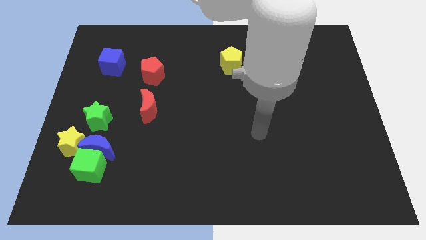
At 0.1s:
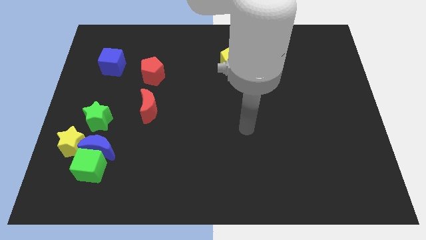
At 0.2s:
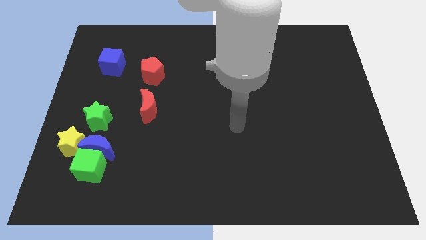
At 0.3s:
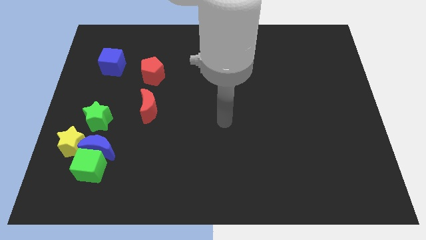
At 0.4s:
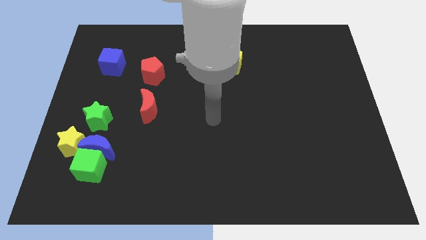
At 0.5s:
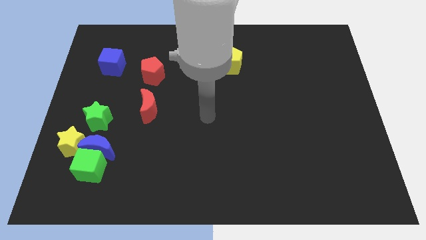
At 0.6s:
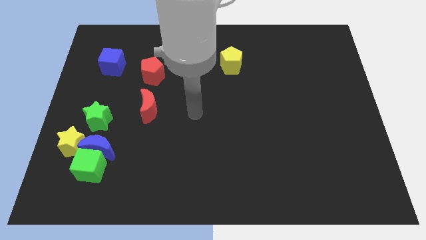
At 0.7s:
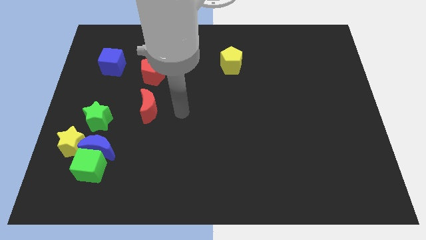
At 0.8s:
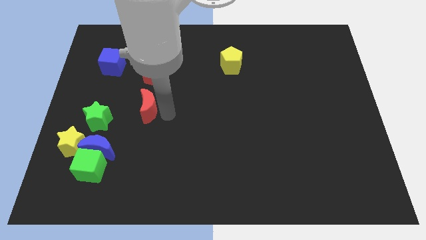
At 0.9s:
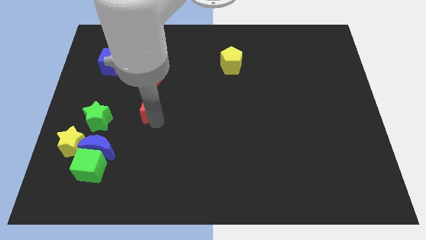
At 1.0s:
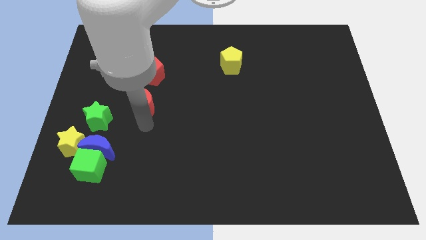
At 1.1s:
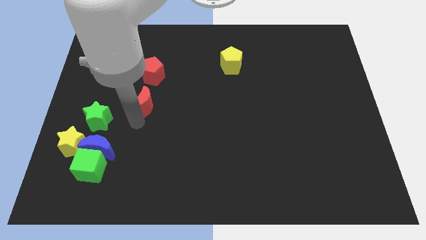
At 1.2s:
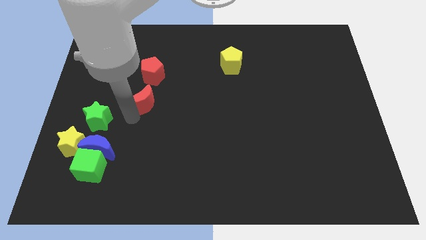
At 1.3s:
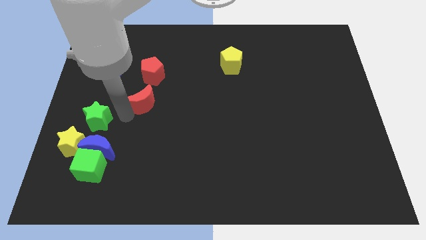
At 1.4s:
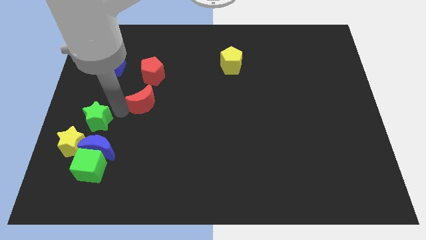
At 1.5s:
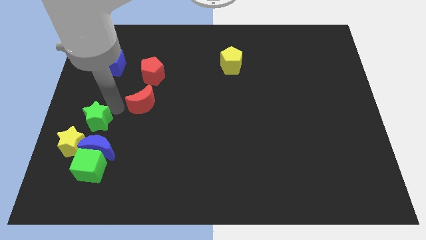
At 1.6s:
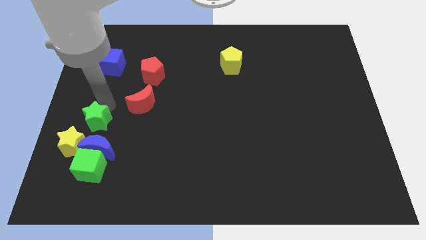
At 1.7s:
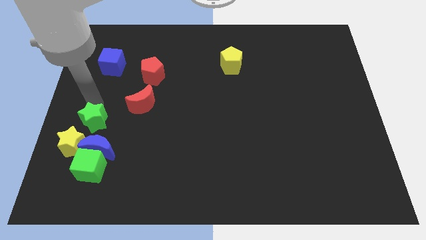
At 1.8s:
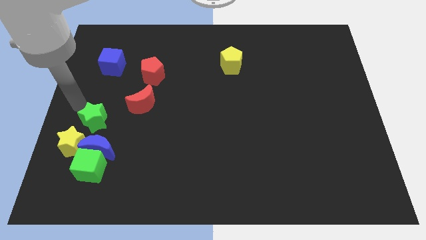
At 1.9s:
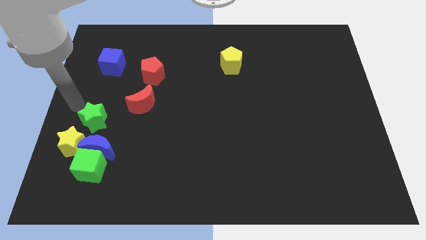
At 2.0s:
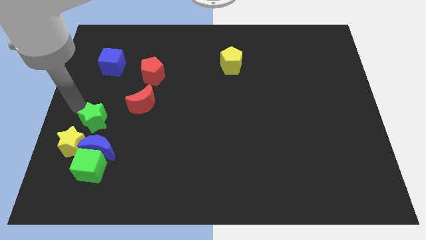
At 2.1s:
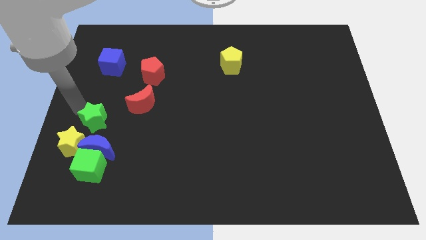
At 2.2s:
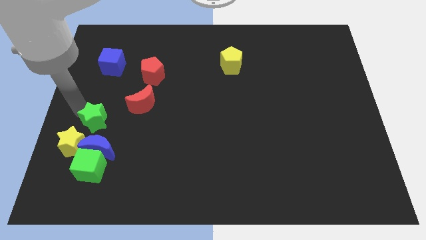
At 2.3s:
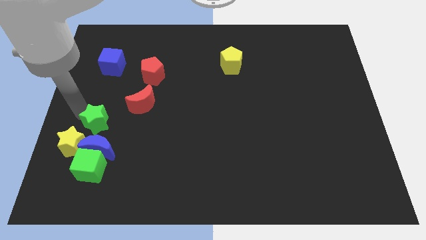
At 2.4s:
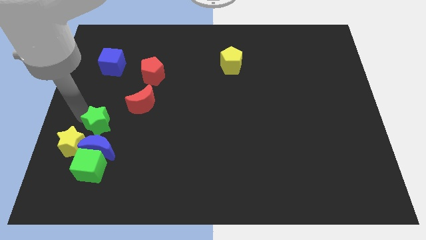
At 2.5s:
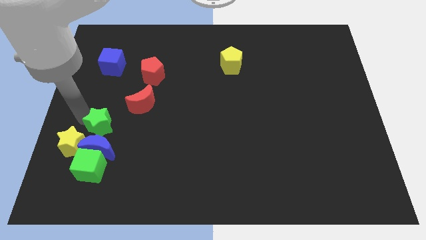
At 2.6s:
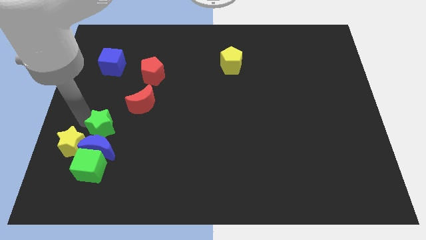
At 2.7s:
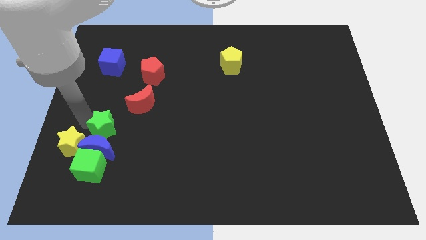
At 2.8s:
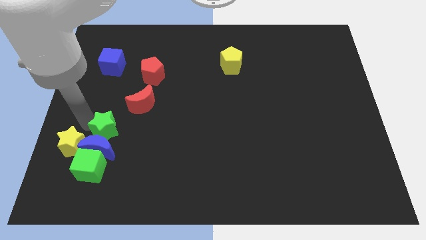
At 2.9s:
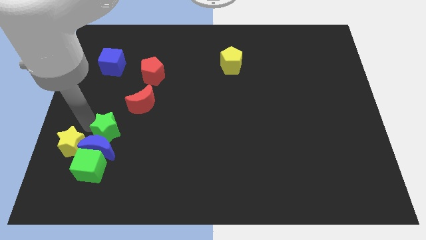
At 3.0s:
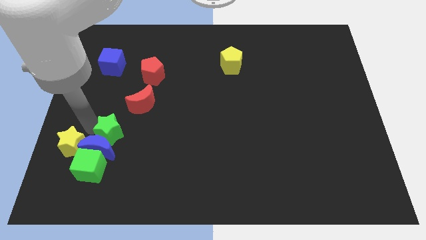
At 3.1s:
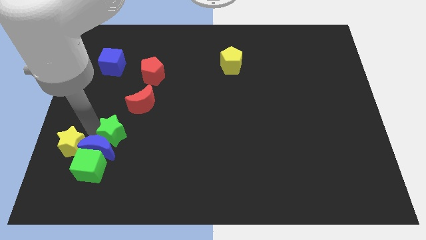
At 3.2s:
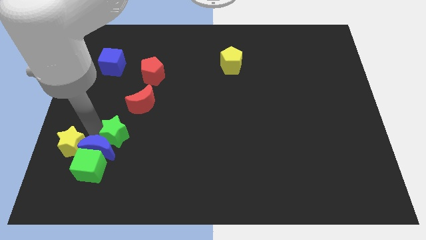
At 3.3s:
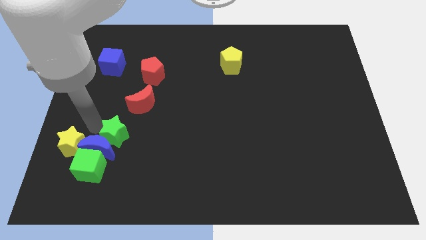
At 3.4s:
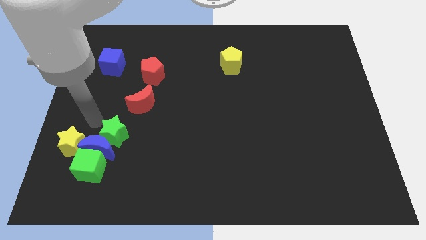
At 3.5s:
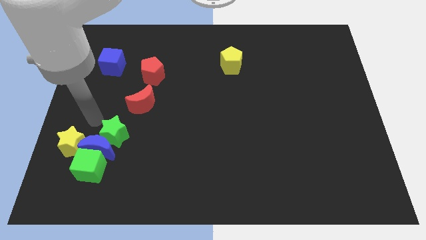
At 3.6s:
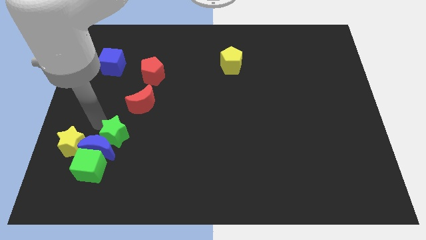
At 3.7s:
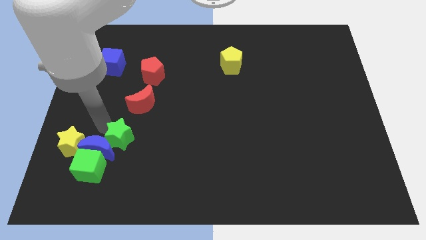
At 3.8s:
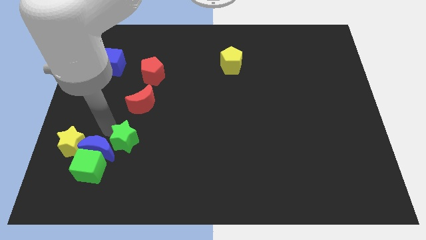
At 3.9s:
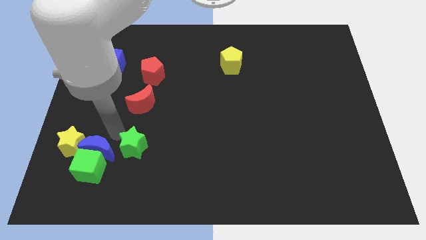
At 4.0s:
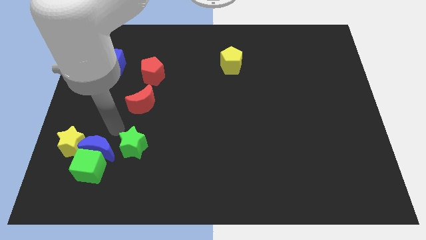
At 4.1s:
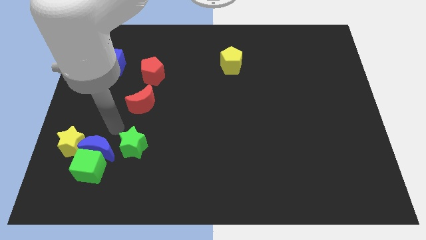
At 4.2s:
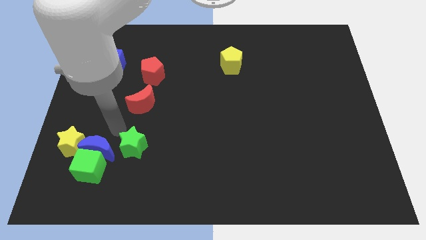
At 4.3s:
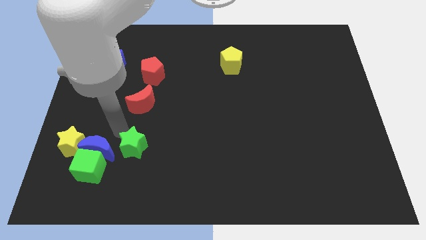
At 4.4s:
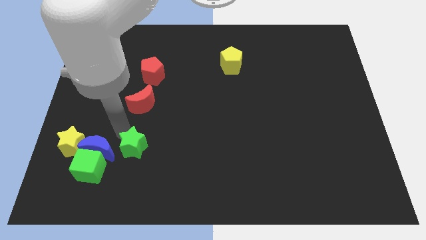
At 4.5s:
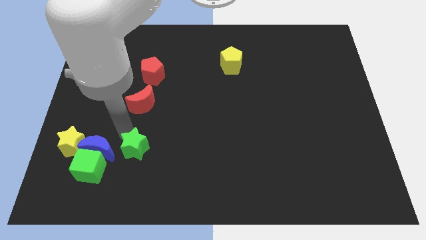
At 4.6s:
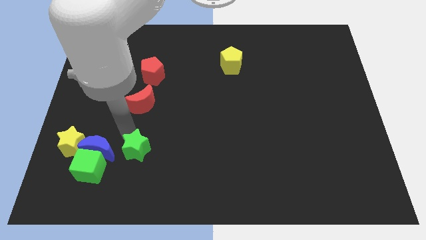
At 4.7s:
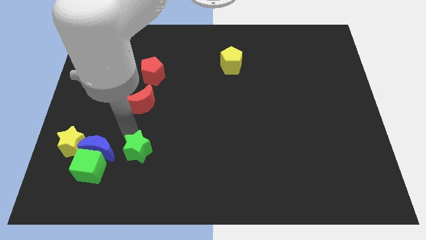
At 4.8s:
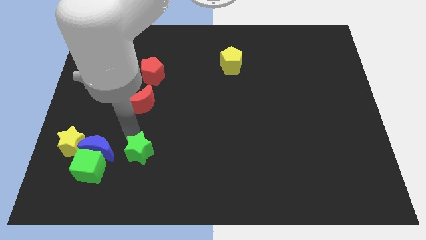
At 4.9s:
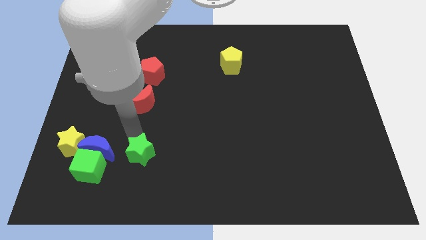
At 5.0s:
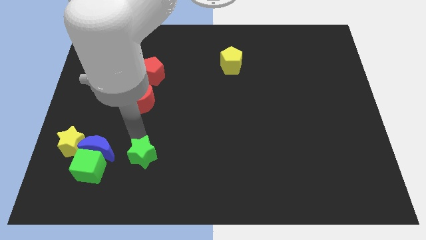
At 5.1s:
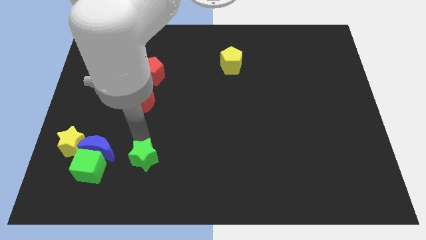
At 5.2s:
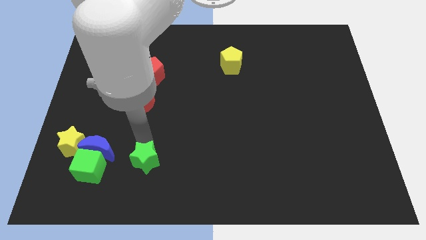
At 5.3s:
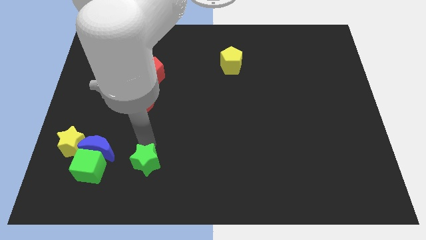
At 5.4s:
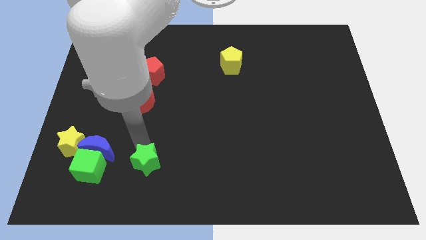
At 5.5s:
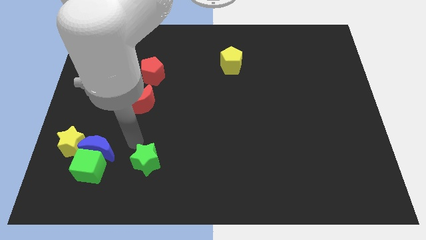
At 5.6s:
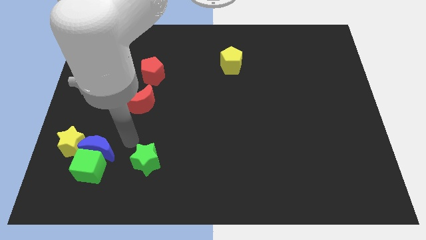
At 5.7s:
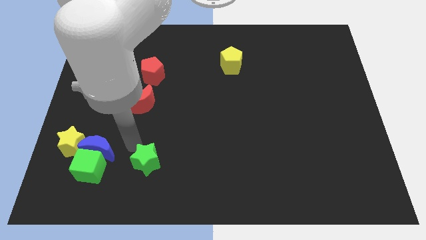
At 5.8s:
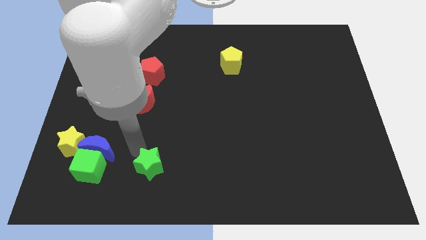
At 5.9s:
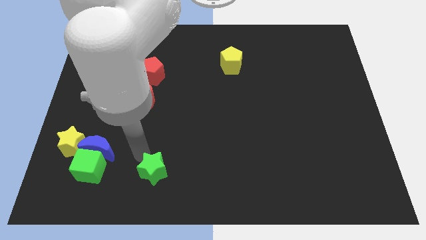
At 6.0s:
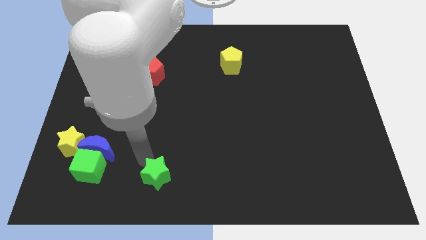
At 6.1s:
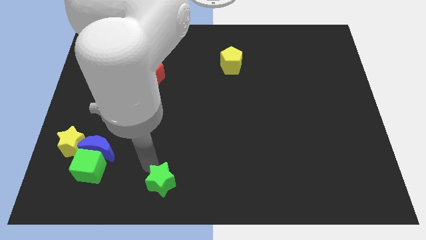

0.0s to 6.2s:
move the green star to the bottom
